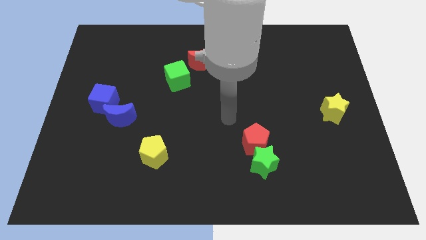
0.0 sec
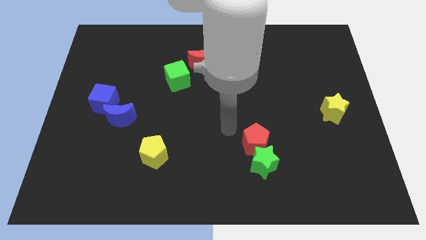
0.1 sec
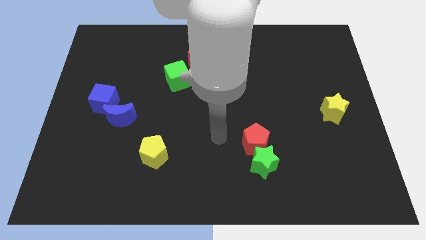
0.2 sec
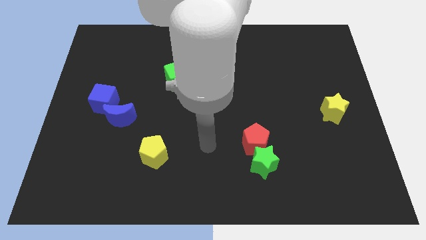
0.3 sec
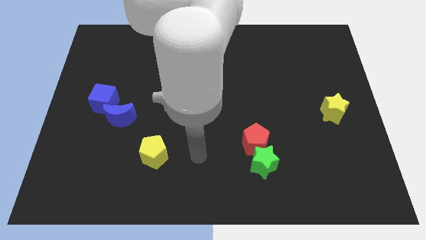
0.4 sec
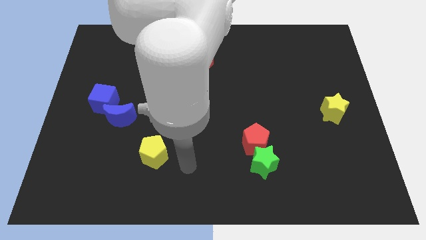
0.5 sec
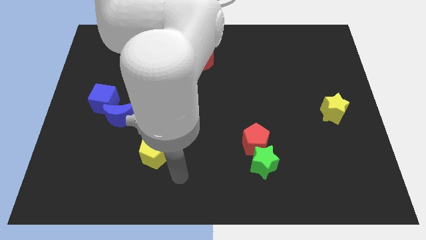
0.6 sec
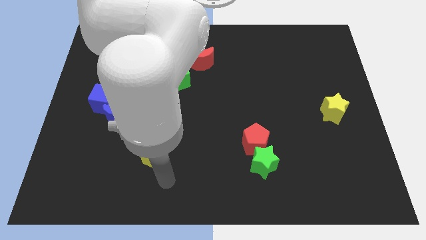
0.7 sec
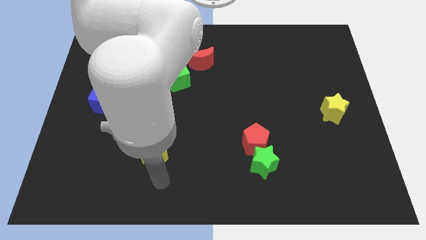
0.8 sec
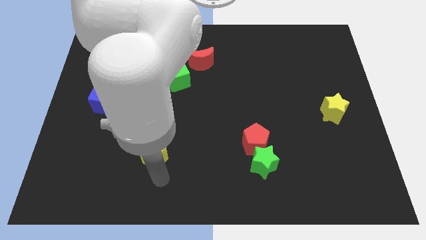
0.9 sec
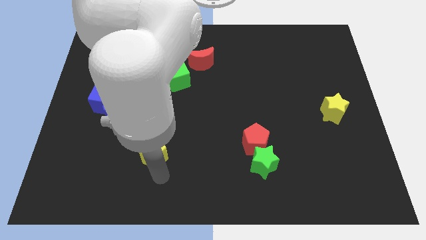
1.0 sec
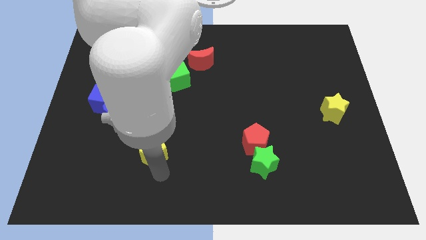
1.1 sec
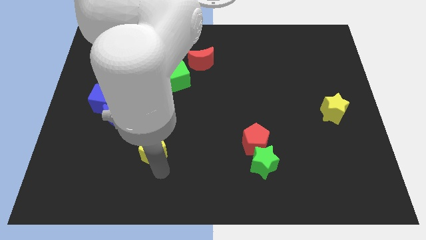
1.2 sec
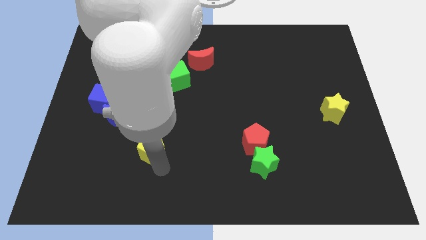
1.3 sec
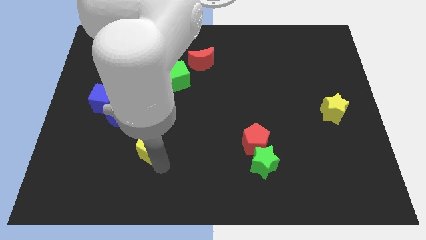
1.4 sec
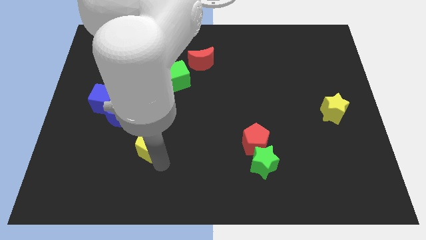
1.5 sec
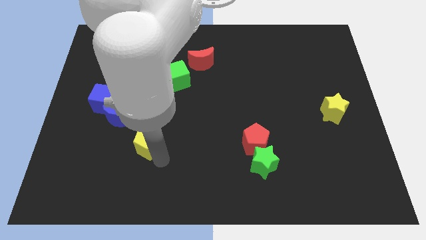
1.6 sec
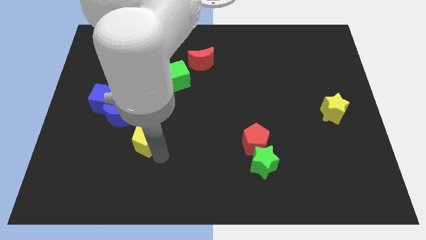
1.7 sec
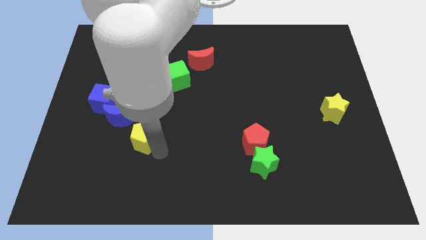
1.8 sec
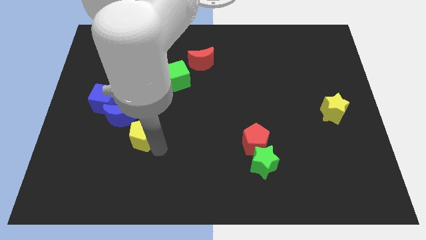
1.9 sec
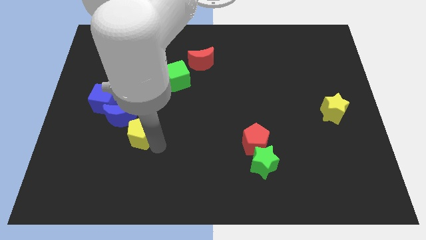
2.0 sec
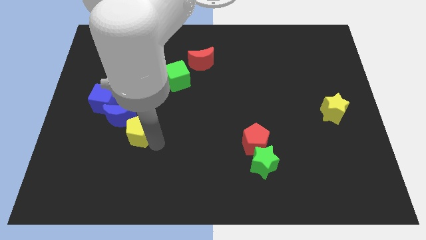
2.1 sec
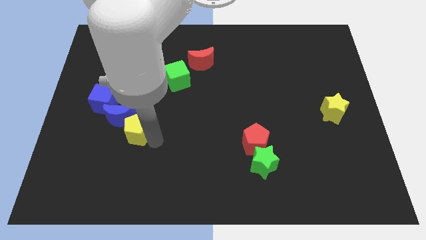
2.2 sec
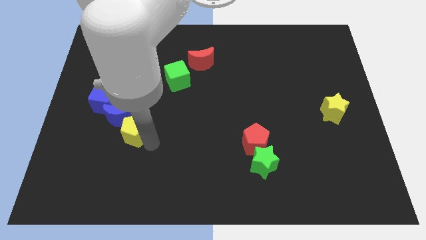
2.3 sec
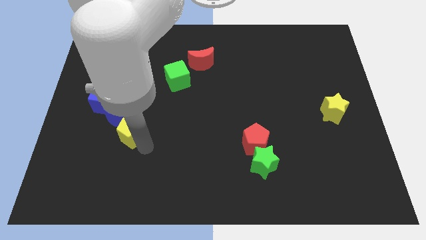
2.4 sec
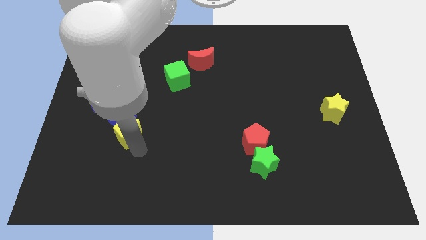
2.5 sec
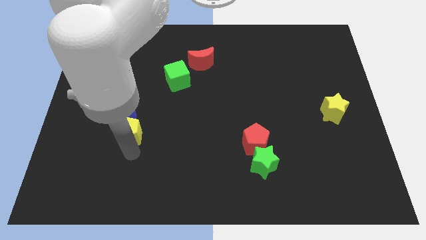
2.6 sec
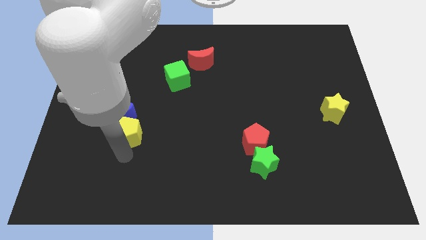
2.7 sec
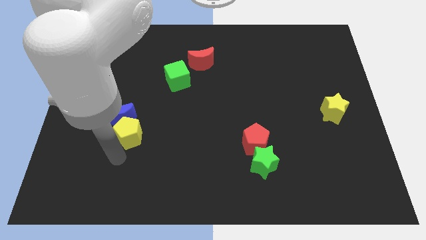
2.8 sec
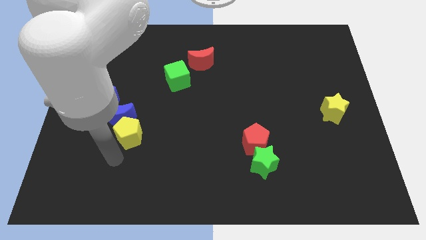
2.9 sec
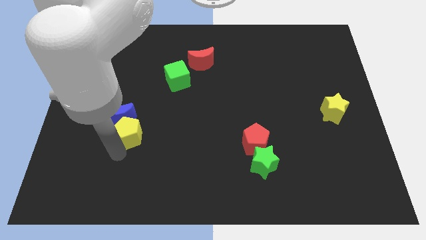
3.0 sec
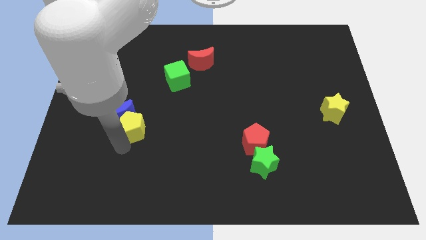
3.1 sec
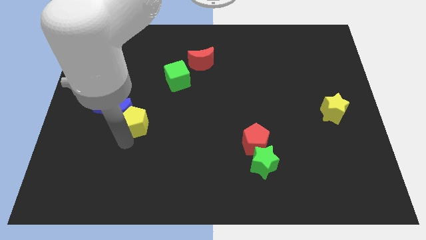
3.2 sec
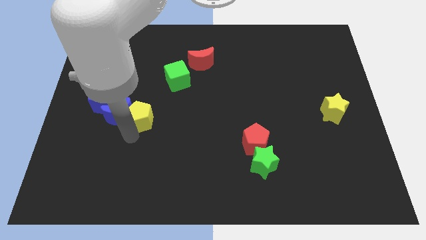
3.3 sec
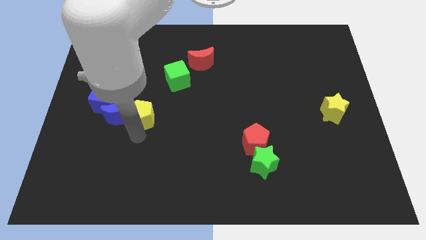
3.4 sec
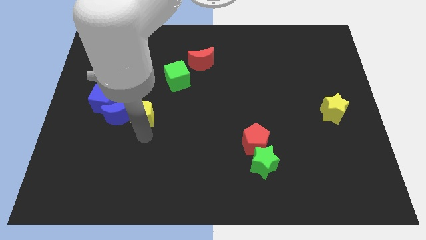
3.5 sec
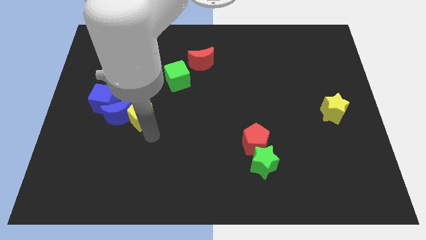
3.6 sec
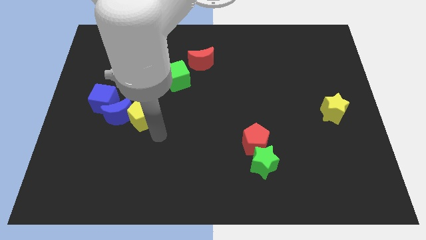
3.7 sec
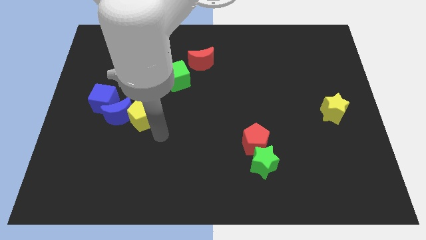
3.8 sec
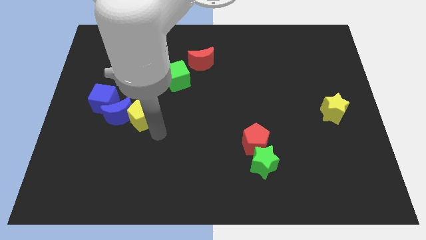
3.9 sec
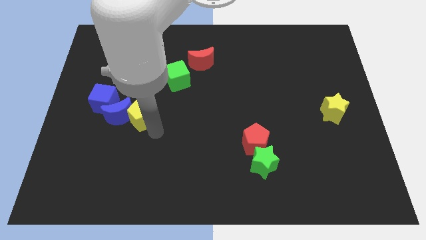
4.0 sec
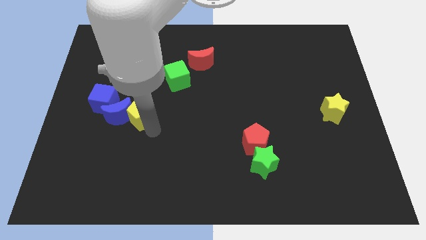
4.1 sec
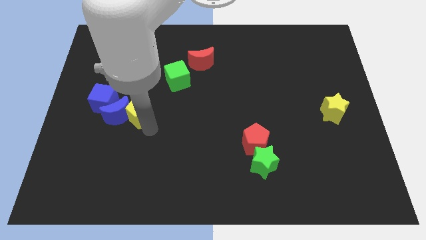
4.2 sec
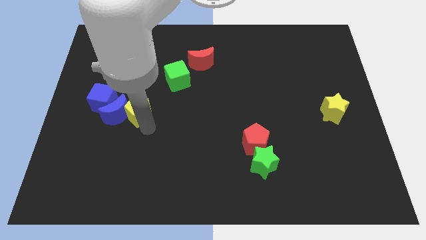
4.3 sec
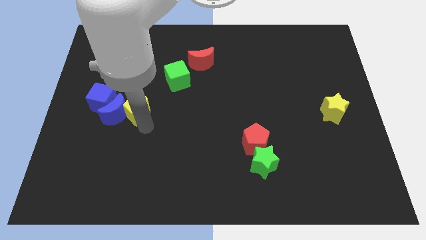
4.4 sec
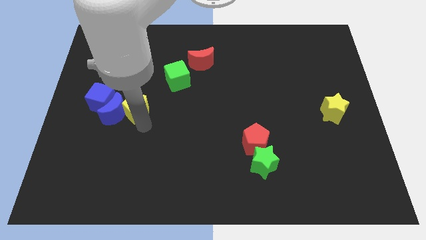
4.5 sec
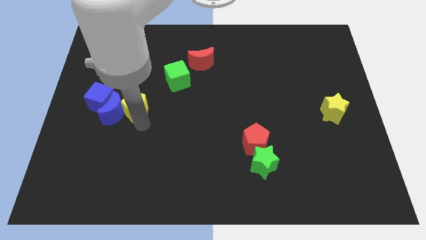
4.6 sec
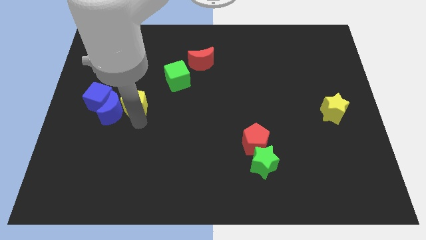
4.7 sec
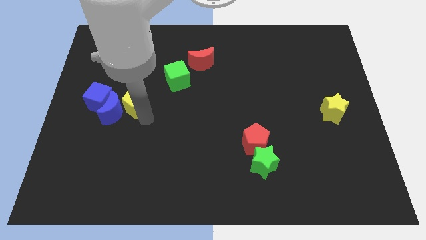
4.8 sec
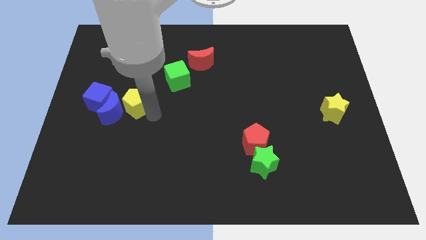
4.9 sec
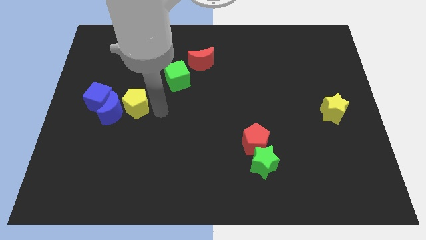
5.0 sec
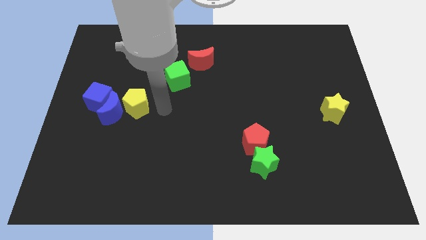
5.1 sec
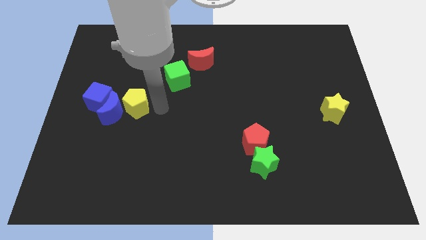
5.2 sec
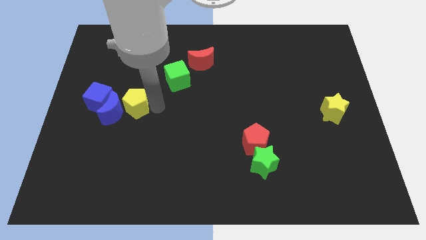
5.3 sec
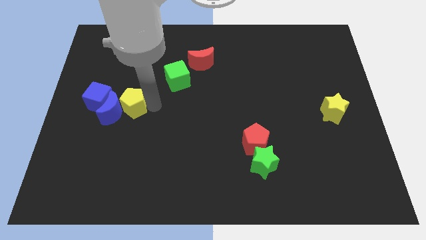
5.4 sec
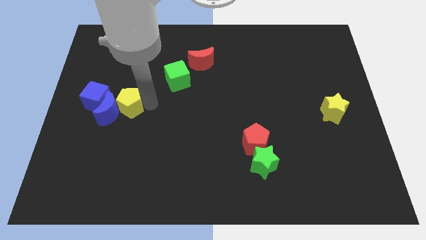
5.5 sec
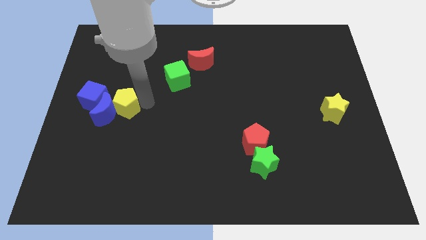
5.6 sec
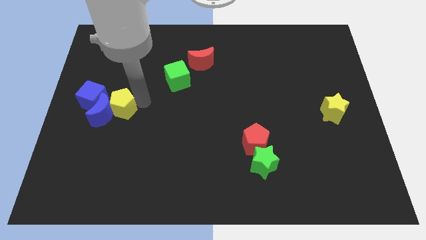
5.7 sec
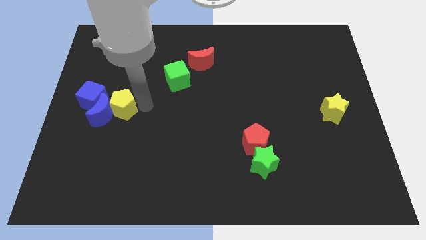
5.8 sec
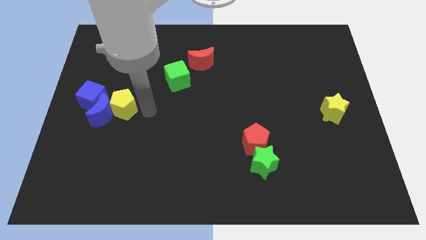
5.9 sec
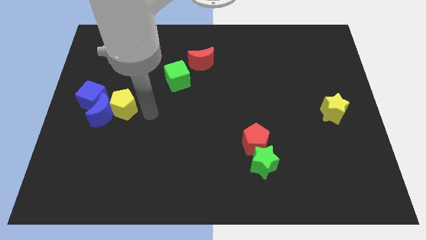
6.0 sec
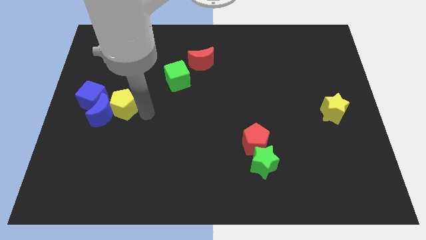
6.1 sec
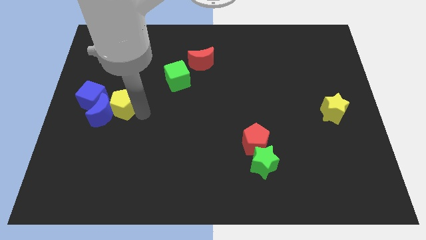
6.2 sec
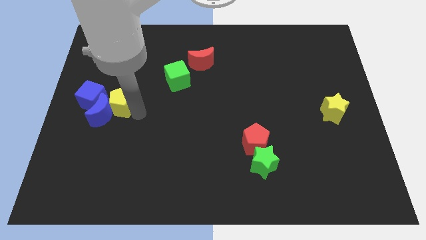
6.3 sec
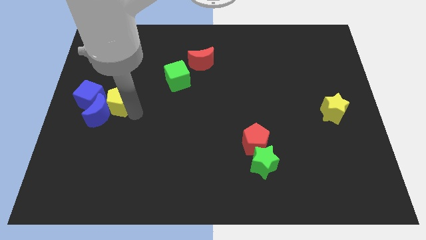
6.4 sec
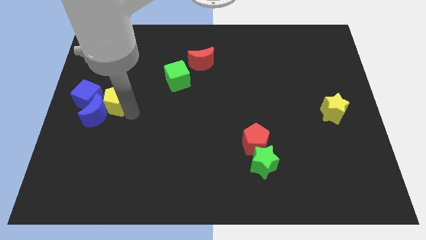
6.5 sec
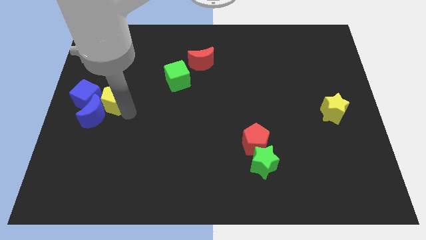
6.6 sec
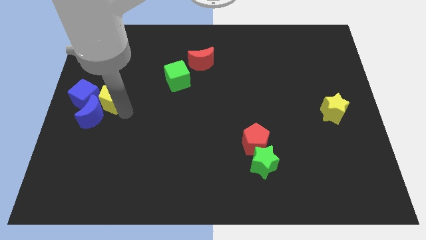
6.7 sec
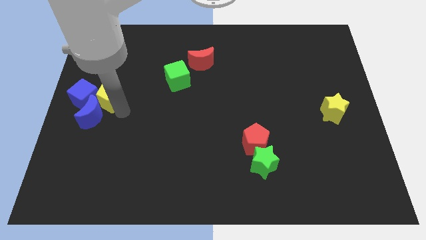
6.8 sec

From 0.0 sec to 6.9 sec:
move the yellow pentagon next to the blue cube

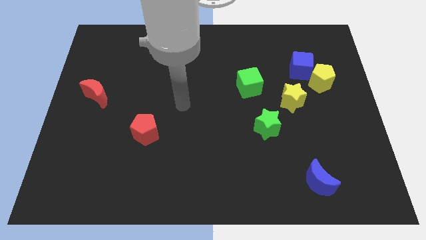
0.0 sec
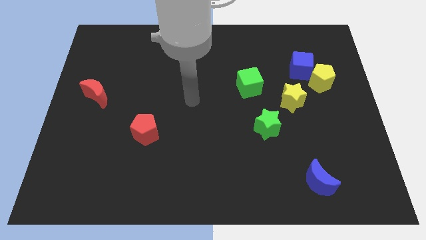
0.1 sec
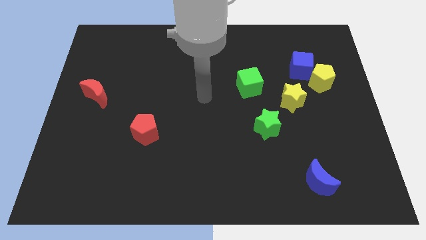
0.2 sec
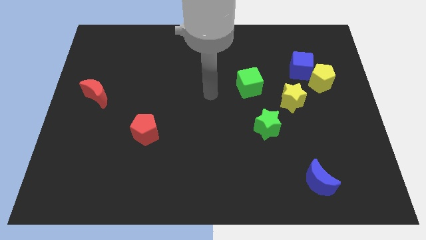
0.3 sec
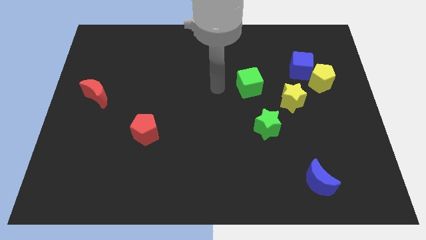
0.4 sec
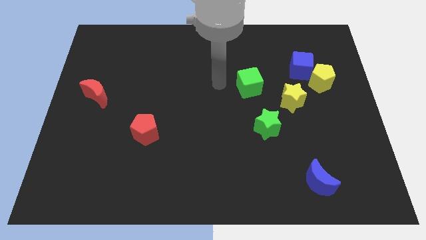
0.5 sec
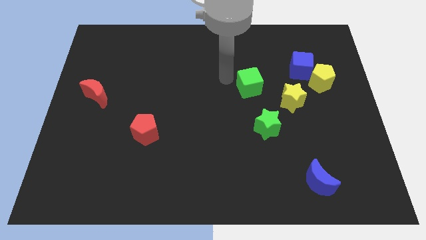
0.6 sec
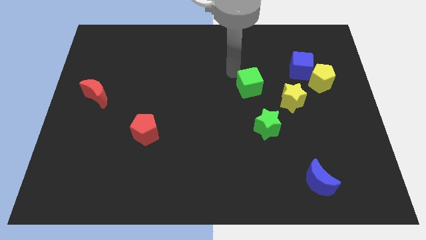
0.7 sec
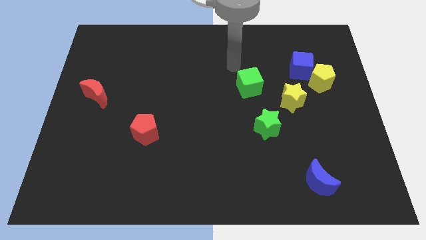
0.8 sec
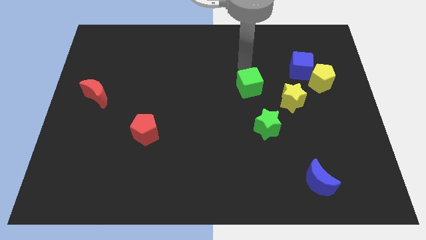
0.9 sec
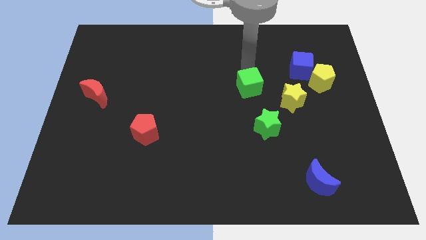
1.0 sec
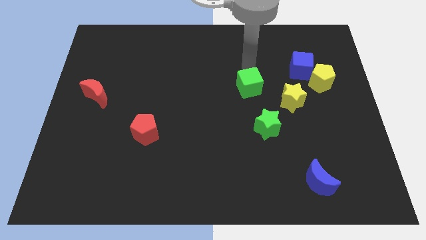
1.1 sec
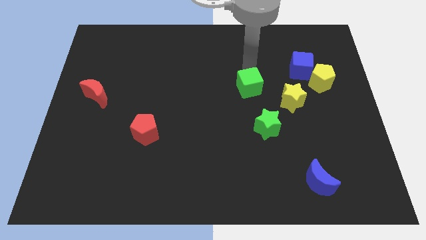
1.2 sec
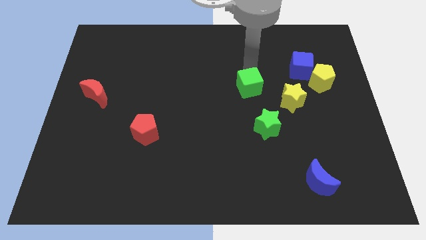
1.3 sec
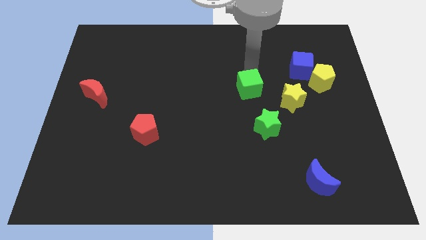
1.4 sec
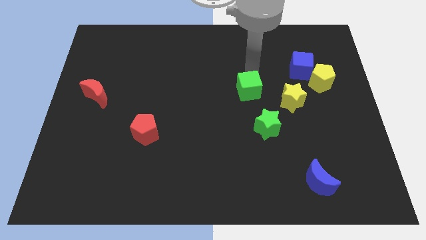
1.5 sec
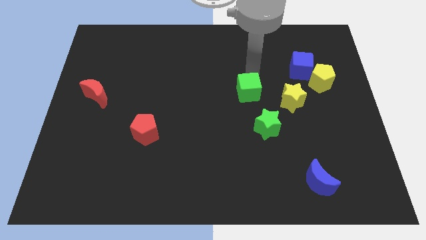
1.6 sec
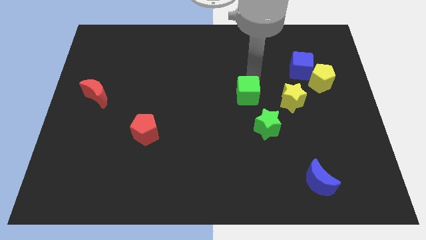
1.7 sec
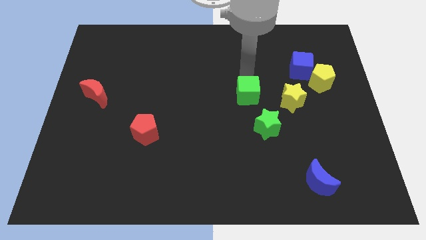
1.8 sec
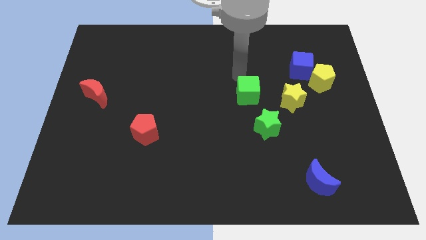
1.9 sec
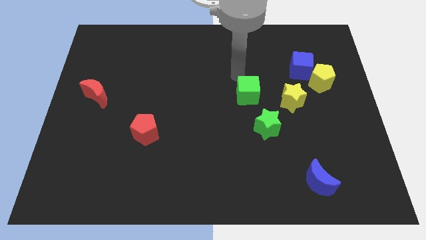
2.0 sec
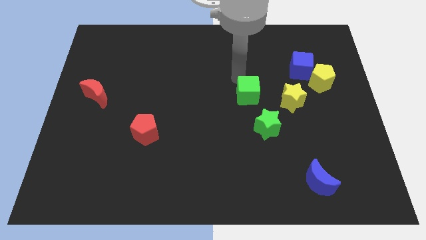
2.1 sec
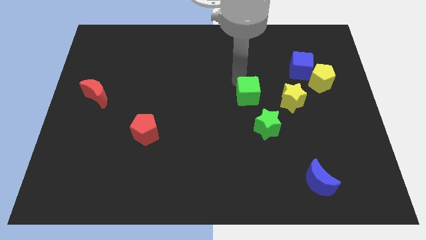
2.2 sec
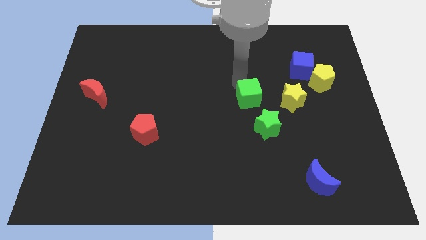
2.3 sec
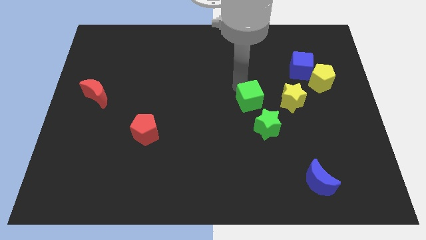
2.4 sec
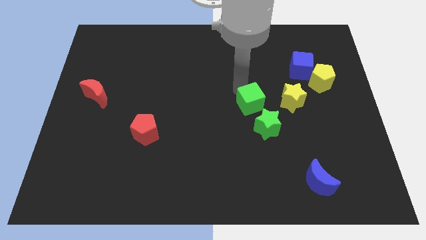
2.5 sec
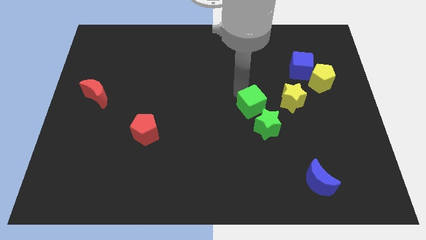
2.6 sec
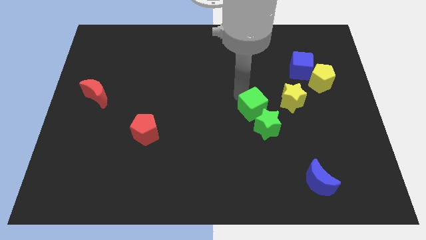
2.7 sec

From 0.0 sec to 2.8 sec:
move the green cube to the green star
